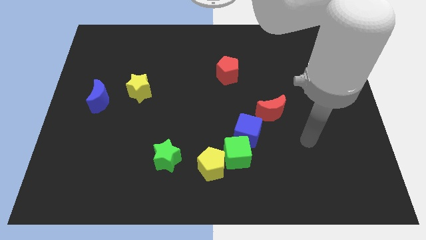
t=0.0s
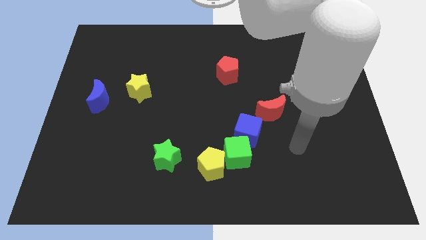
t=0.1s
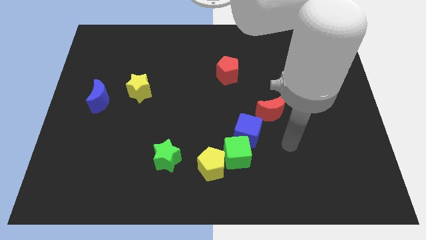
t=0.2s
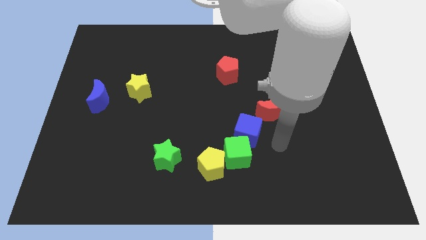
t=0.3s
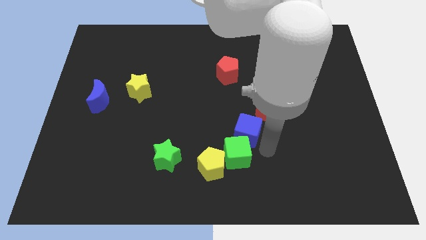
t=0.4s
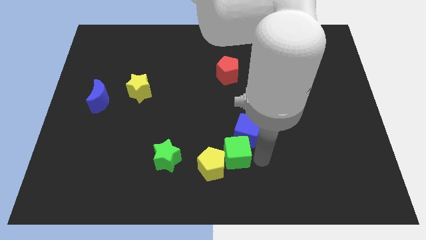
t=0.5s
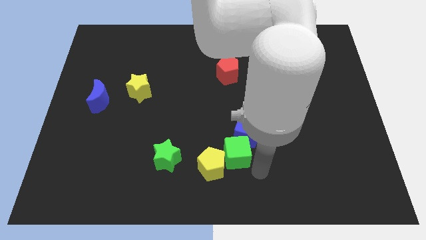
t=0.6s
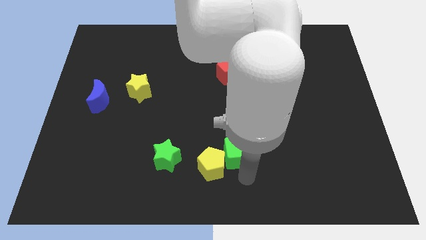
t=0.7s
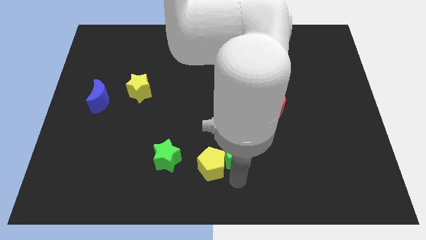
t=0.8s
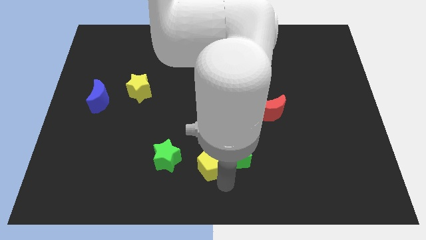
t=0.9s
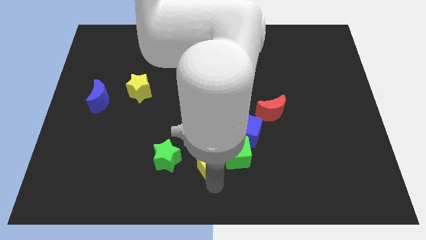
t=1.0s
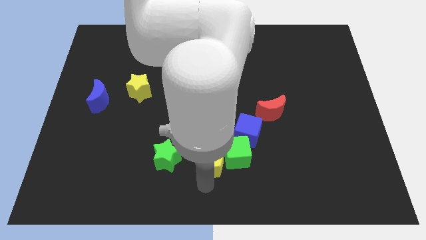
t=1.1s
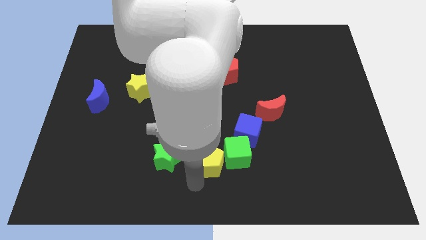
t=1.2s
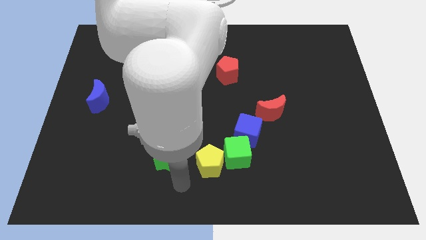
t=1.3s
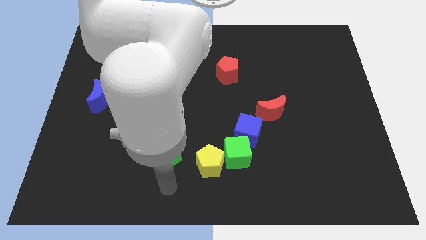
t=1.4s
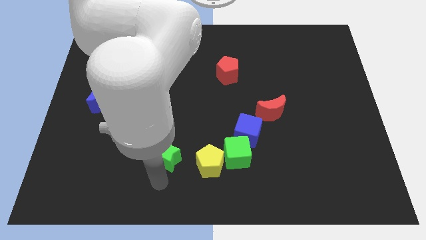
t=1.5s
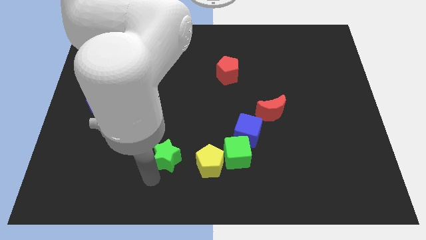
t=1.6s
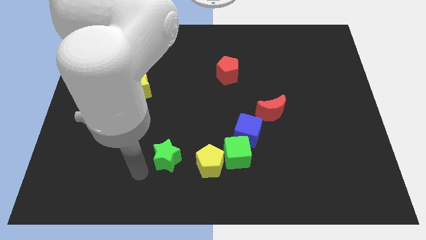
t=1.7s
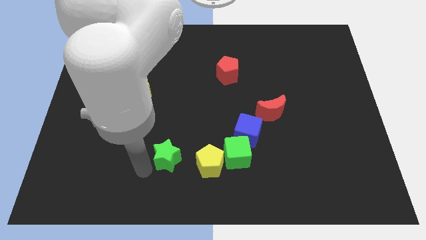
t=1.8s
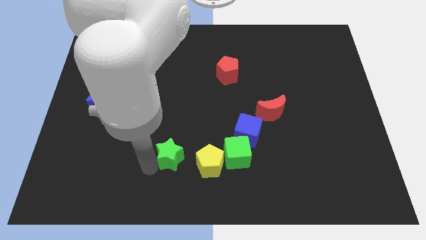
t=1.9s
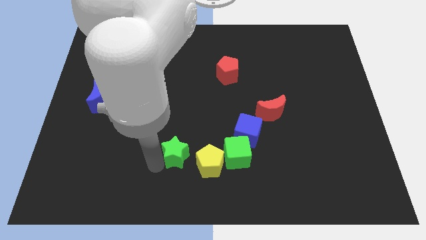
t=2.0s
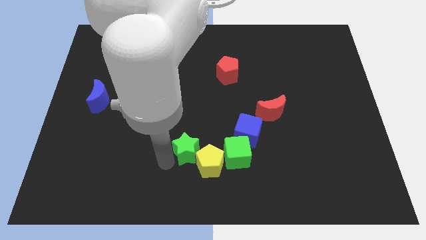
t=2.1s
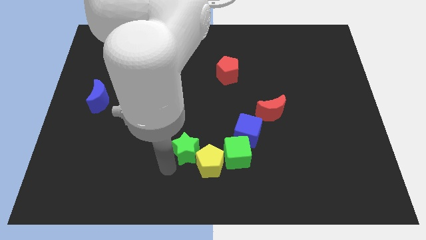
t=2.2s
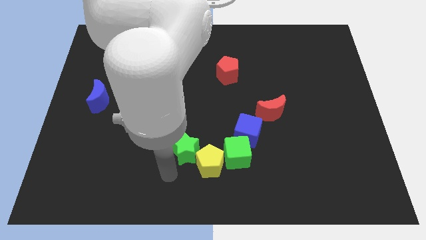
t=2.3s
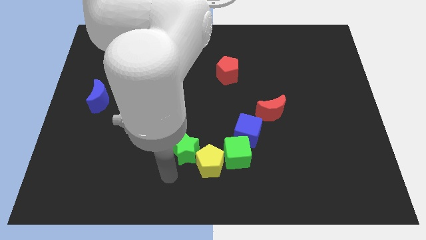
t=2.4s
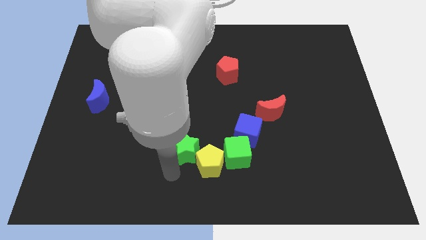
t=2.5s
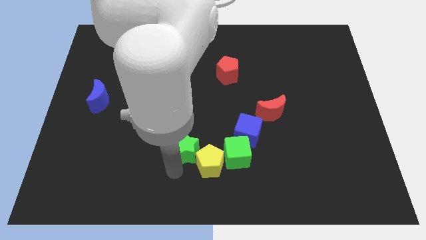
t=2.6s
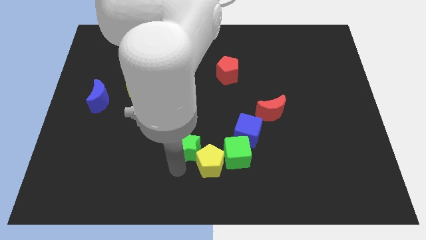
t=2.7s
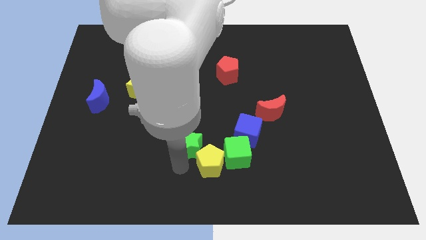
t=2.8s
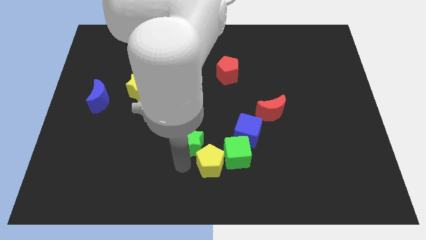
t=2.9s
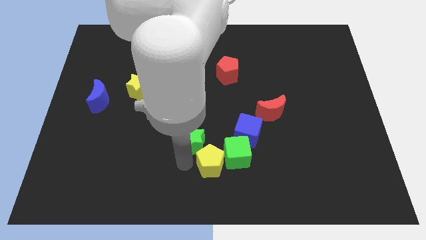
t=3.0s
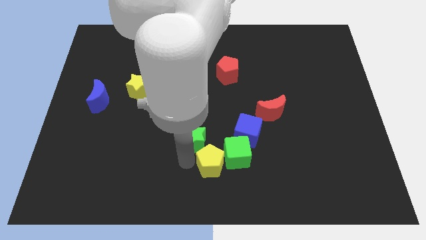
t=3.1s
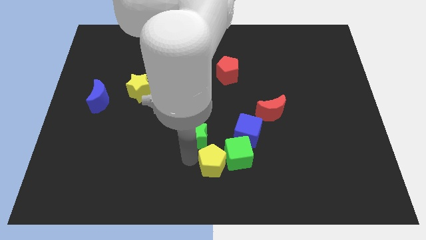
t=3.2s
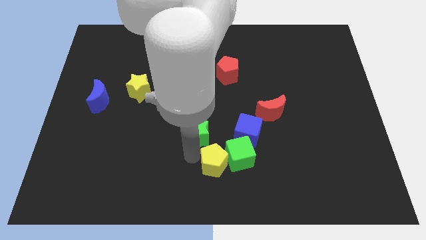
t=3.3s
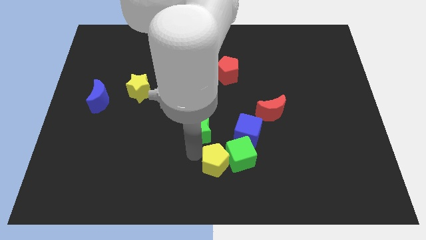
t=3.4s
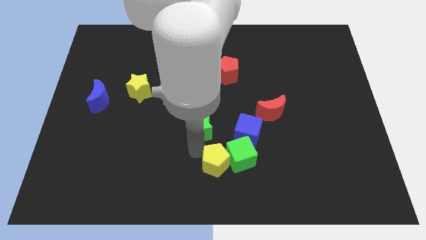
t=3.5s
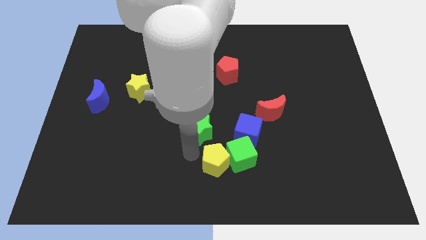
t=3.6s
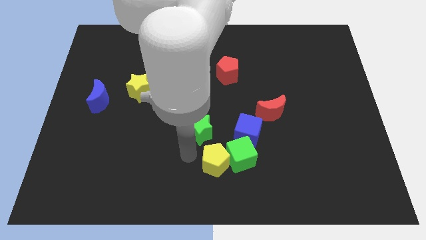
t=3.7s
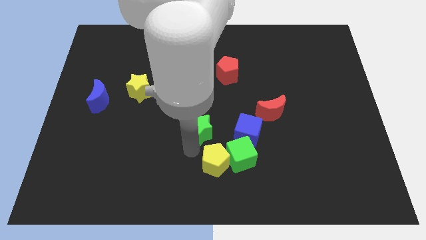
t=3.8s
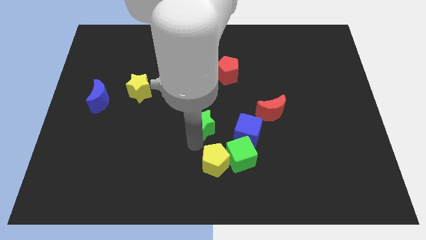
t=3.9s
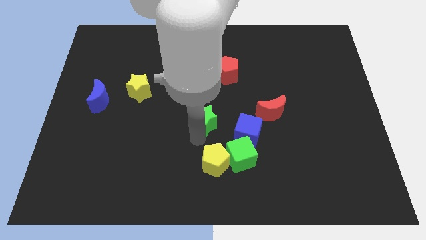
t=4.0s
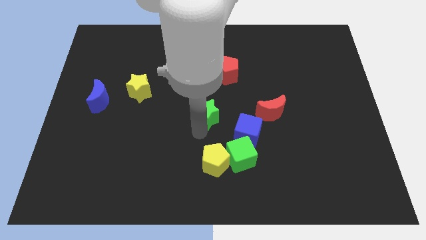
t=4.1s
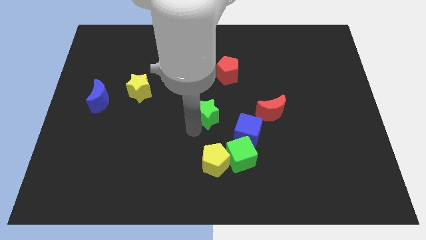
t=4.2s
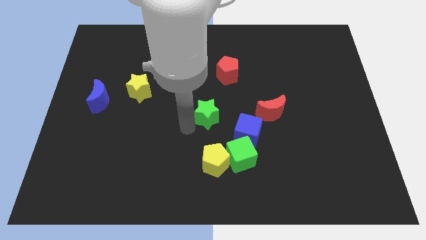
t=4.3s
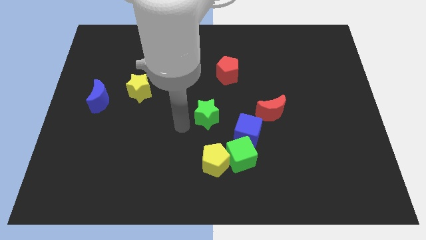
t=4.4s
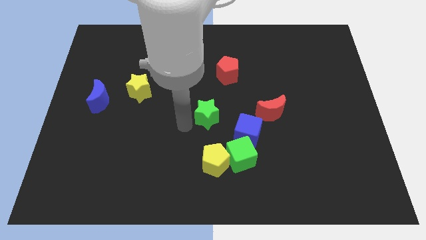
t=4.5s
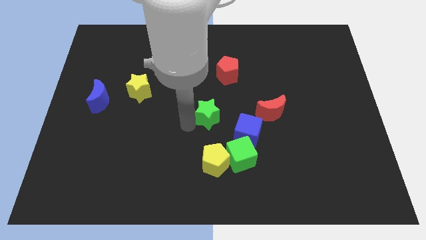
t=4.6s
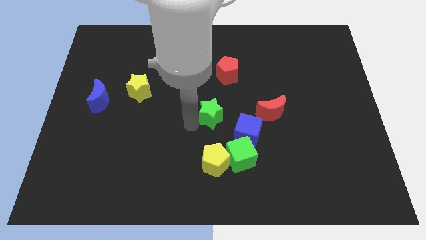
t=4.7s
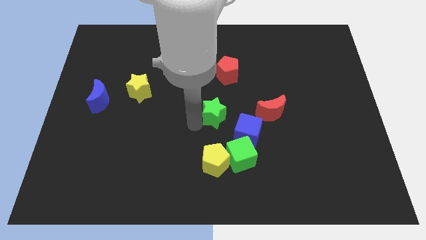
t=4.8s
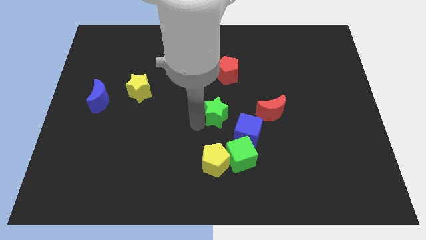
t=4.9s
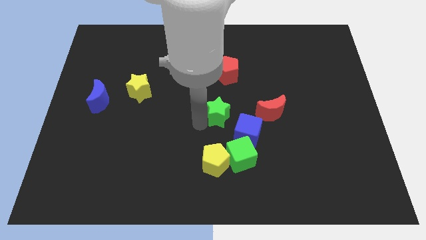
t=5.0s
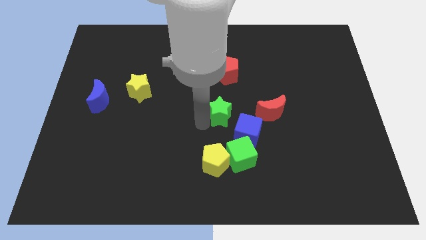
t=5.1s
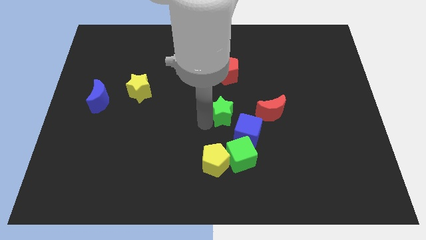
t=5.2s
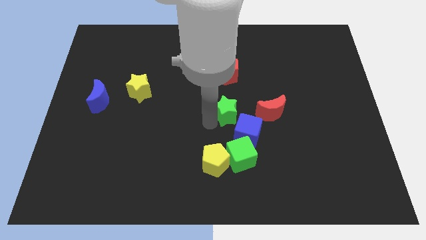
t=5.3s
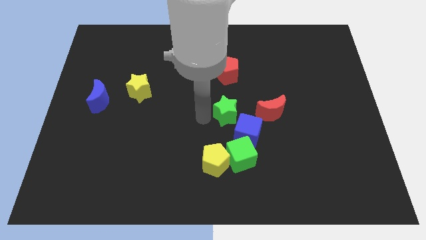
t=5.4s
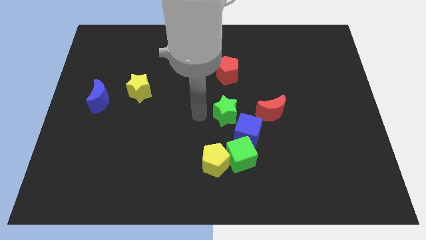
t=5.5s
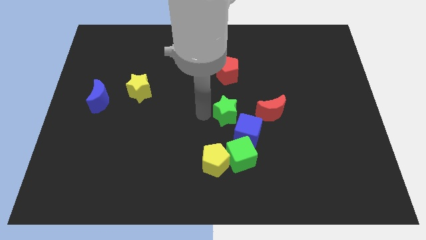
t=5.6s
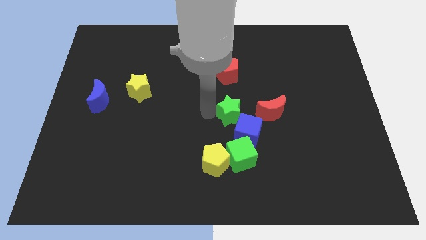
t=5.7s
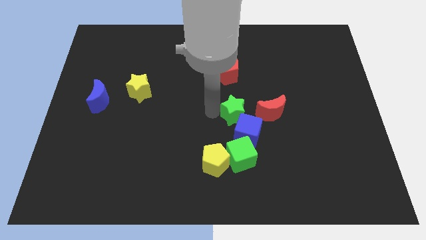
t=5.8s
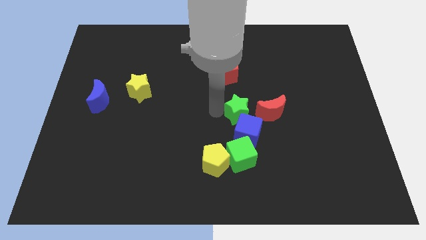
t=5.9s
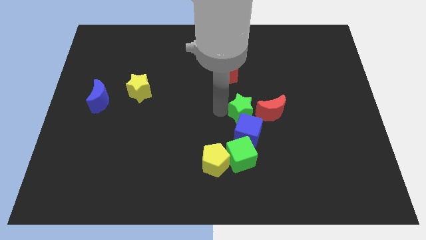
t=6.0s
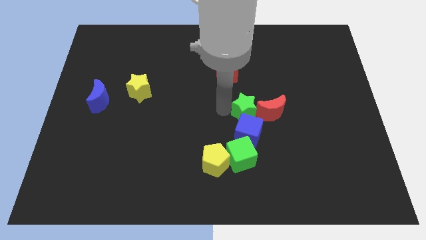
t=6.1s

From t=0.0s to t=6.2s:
push the green star to the red moon
